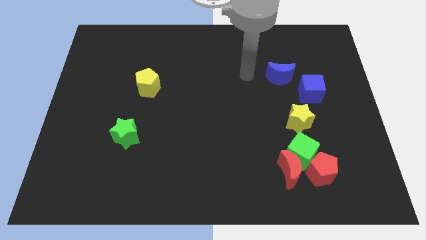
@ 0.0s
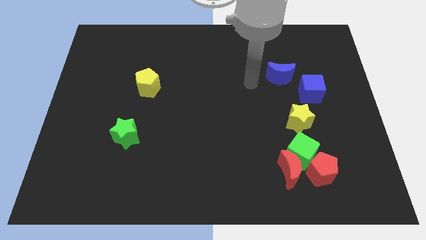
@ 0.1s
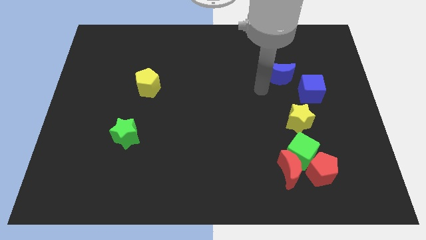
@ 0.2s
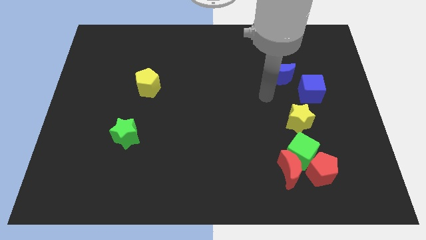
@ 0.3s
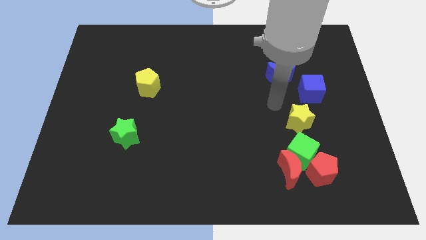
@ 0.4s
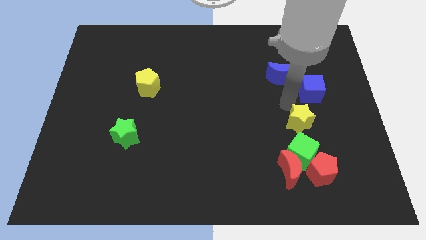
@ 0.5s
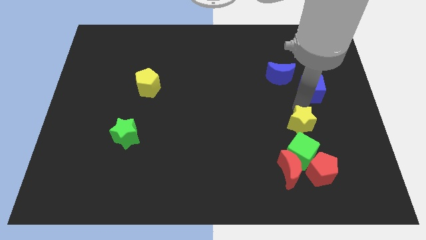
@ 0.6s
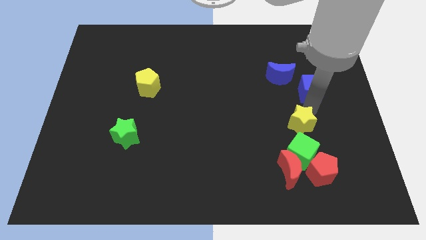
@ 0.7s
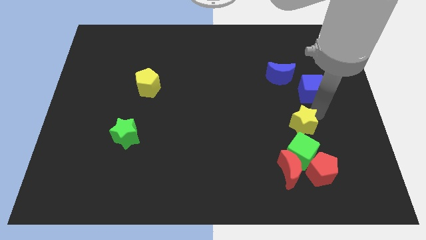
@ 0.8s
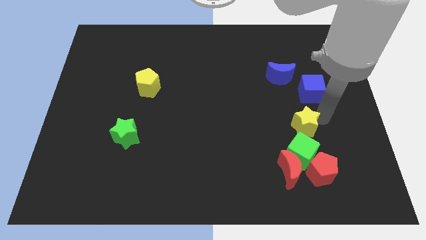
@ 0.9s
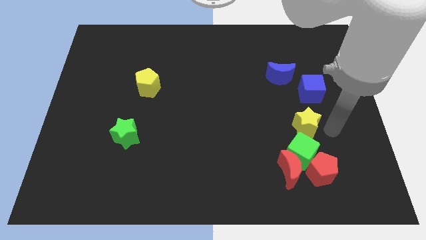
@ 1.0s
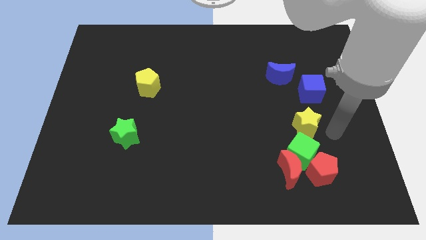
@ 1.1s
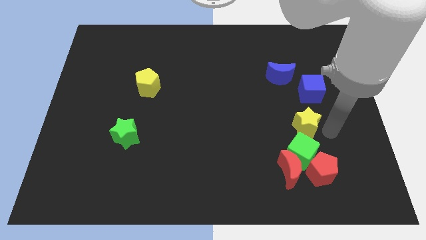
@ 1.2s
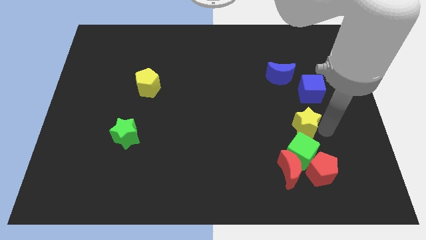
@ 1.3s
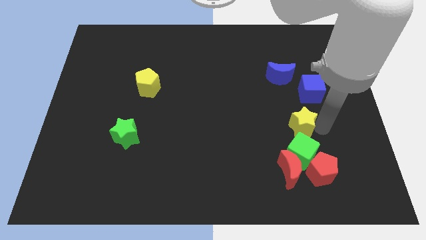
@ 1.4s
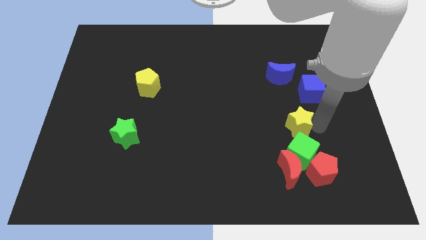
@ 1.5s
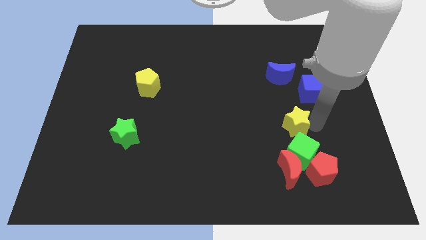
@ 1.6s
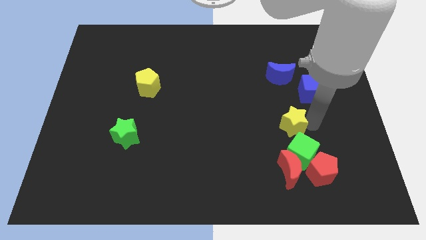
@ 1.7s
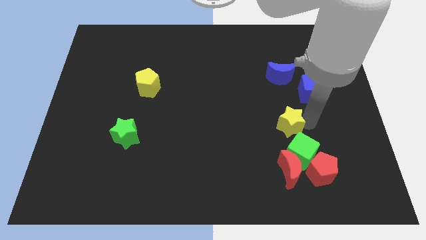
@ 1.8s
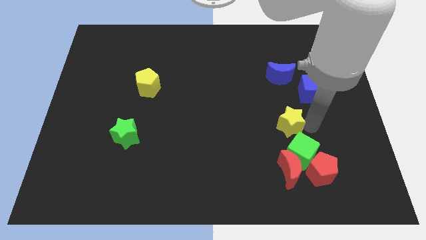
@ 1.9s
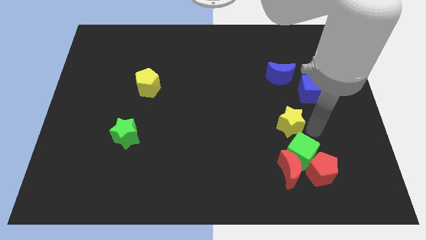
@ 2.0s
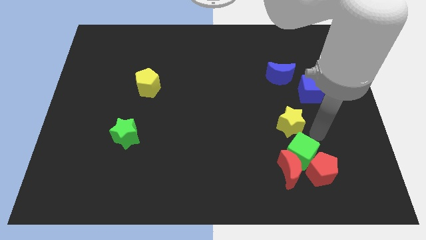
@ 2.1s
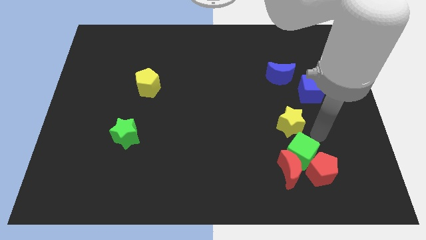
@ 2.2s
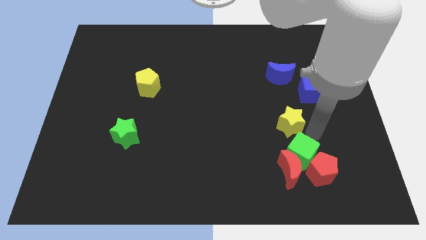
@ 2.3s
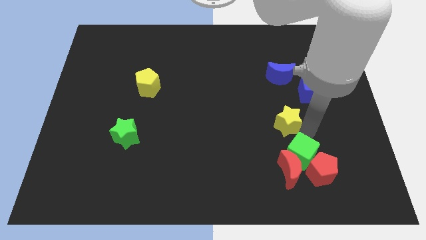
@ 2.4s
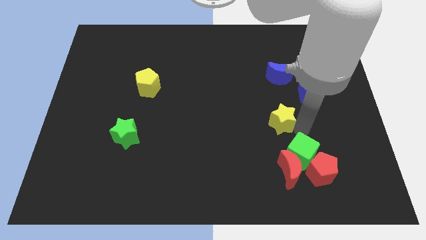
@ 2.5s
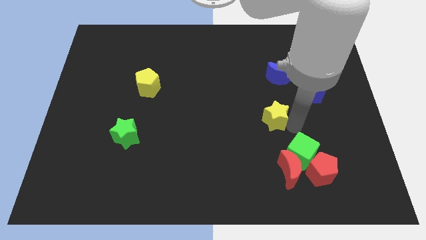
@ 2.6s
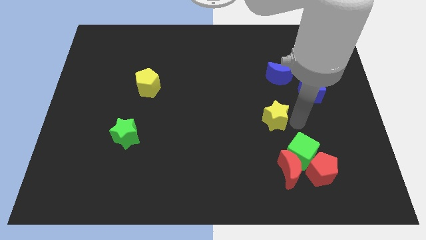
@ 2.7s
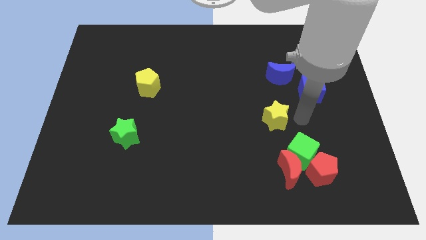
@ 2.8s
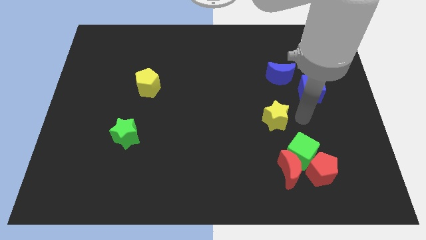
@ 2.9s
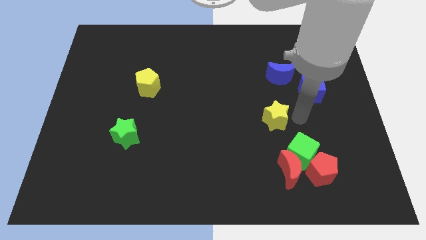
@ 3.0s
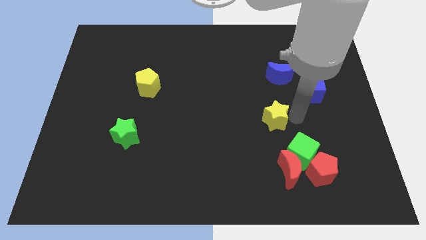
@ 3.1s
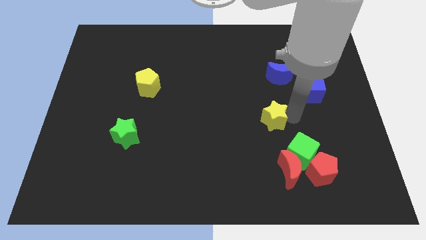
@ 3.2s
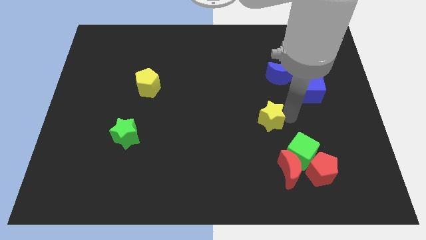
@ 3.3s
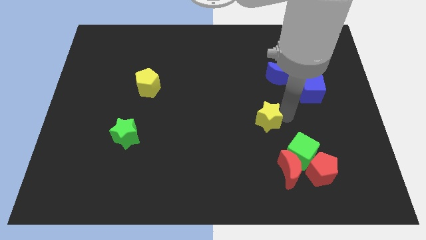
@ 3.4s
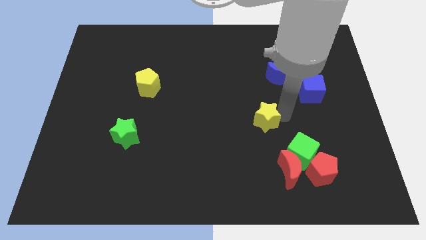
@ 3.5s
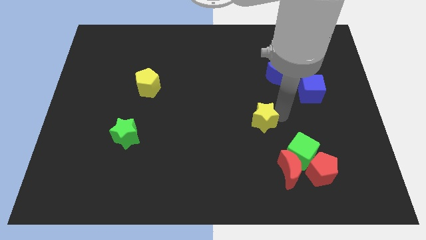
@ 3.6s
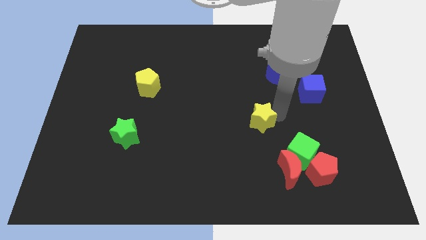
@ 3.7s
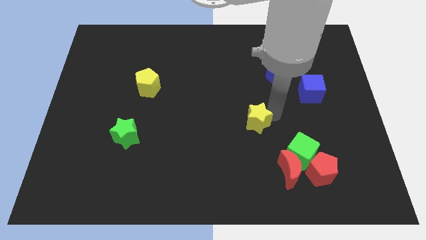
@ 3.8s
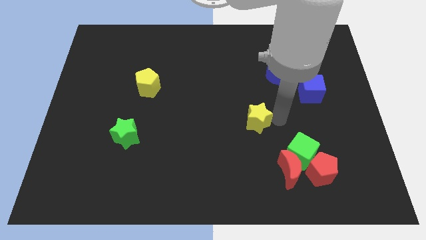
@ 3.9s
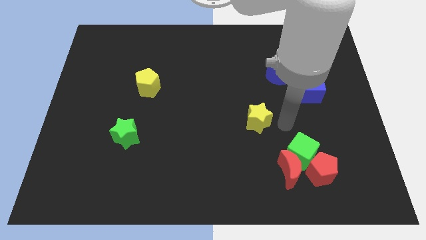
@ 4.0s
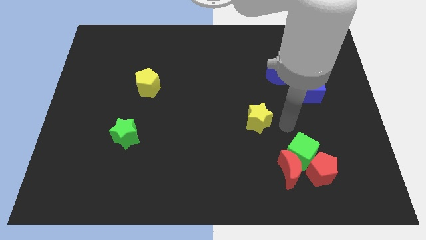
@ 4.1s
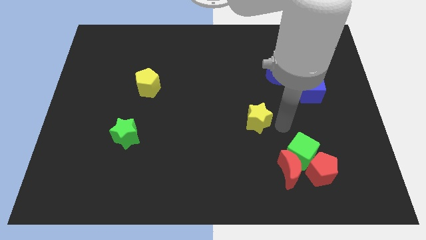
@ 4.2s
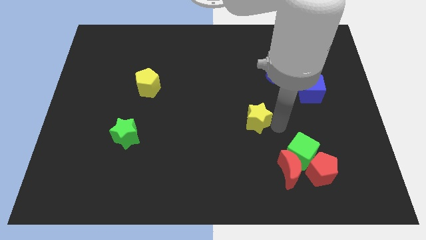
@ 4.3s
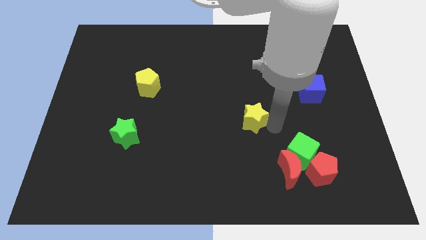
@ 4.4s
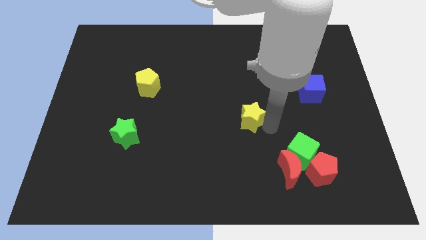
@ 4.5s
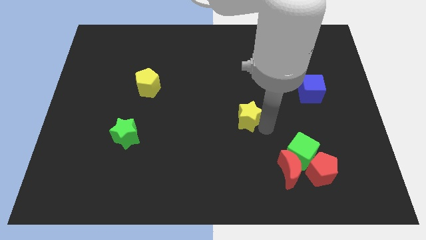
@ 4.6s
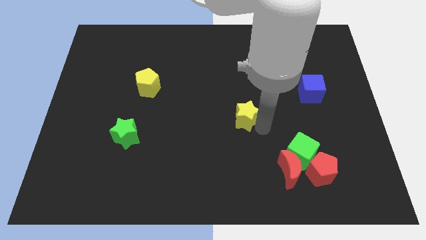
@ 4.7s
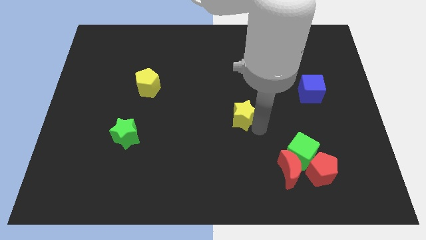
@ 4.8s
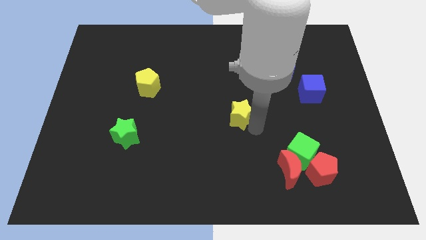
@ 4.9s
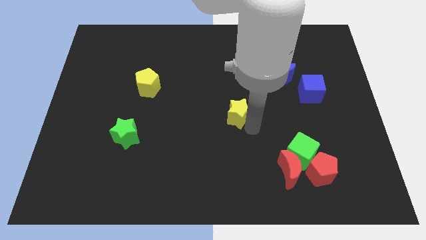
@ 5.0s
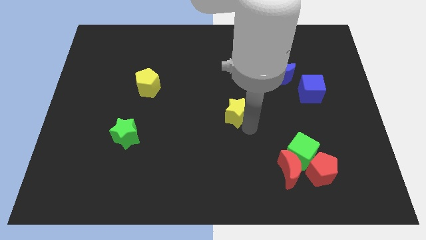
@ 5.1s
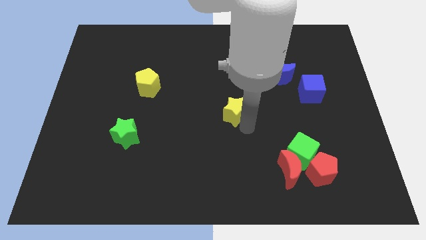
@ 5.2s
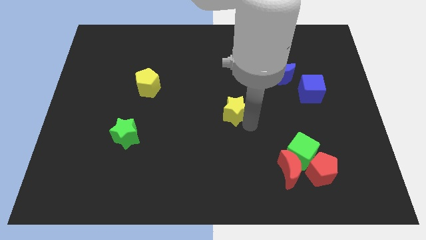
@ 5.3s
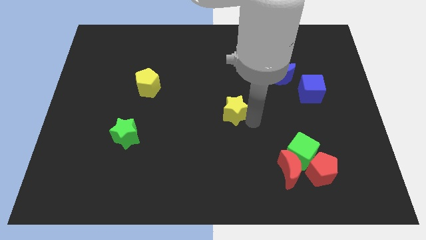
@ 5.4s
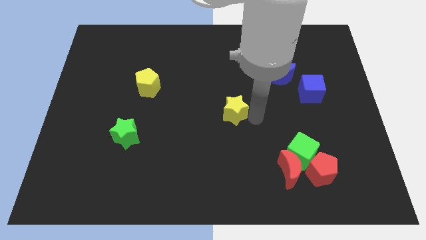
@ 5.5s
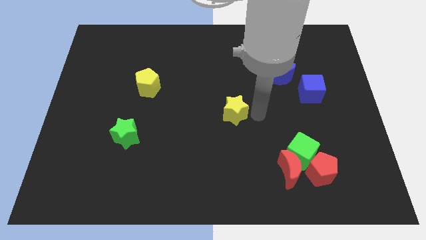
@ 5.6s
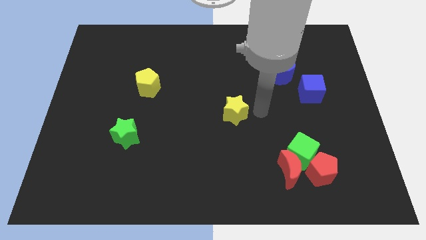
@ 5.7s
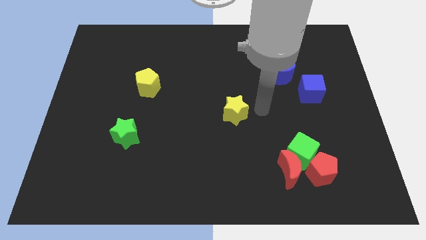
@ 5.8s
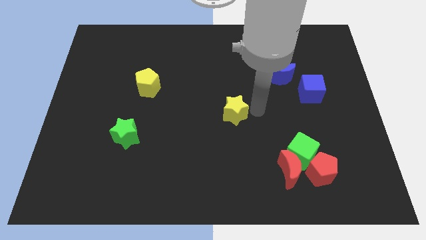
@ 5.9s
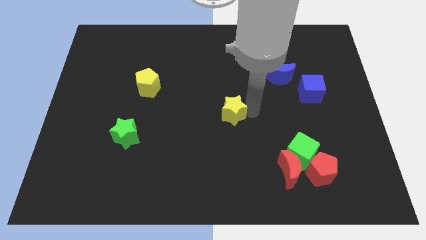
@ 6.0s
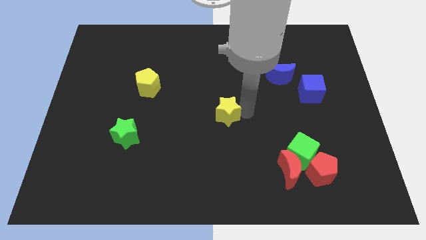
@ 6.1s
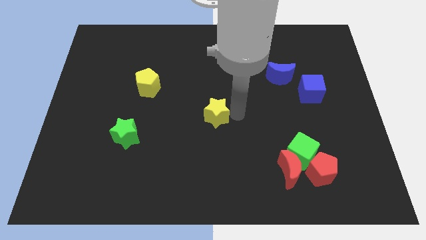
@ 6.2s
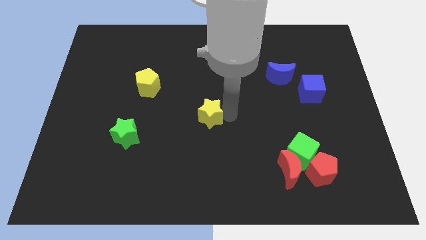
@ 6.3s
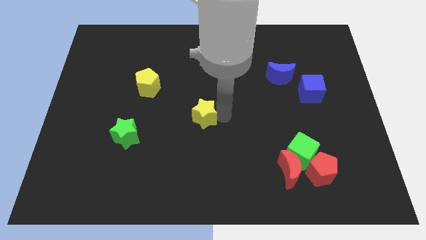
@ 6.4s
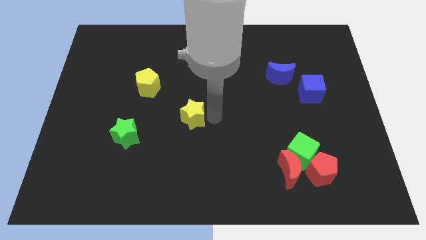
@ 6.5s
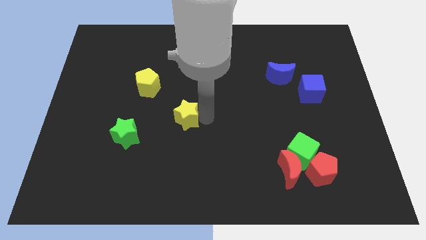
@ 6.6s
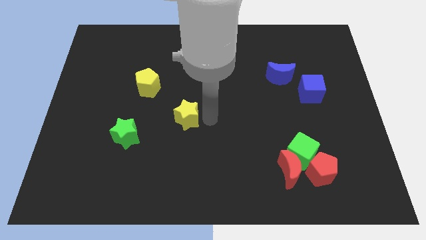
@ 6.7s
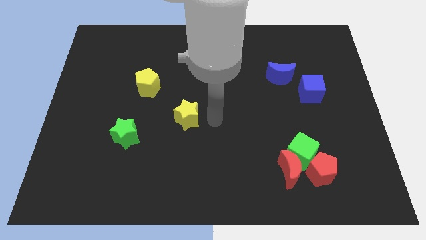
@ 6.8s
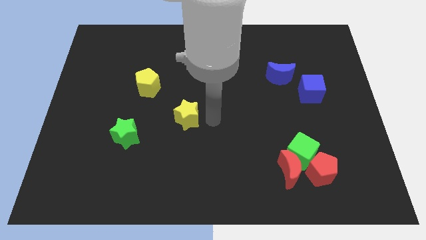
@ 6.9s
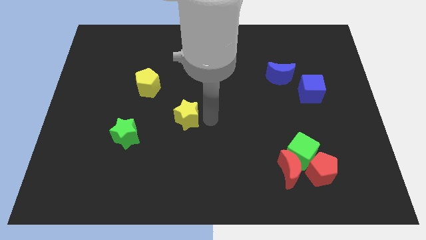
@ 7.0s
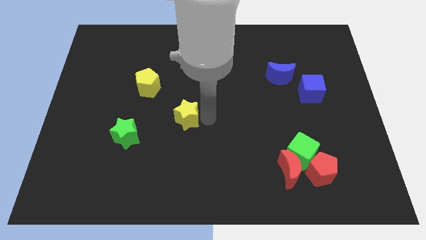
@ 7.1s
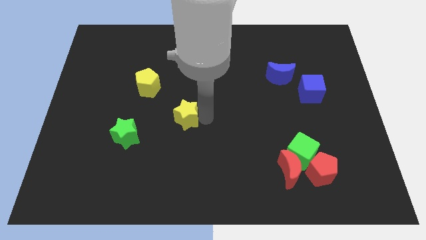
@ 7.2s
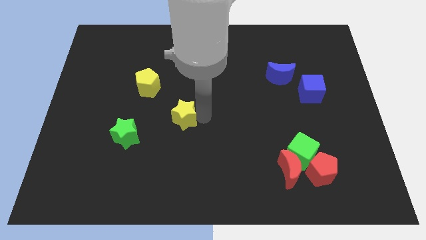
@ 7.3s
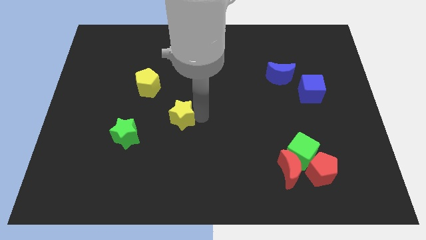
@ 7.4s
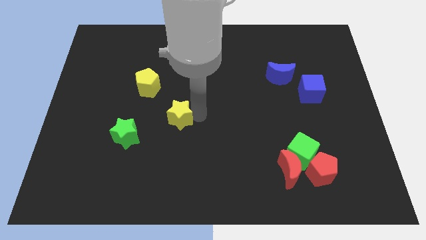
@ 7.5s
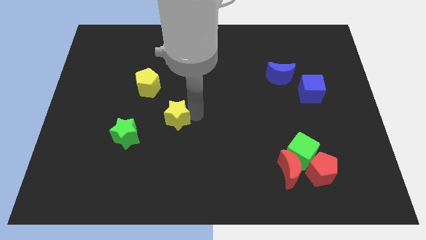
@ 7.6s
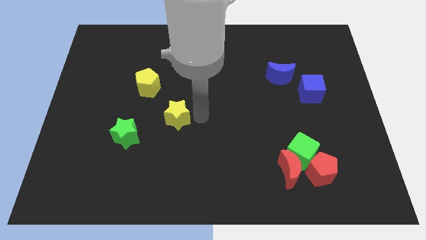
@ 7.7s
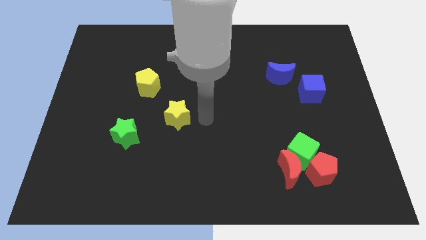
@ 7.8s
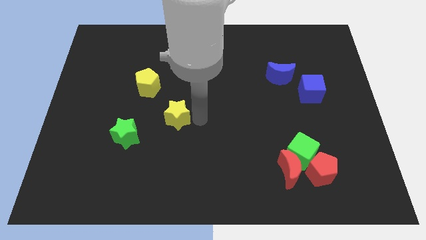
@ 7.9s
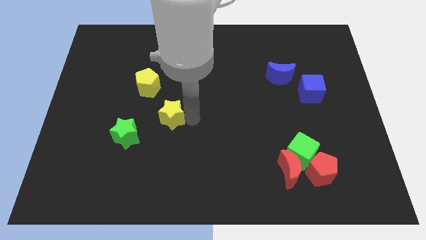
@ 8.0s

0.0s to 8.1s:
push the yellow star diagonally up and to the right of the green star
